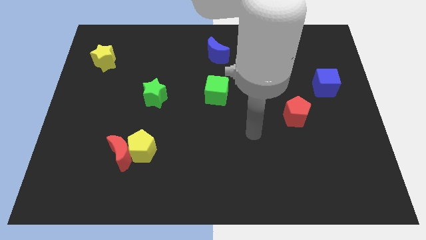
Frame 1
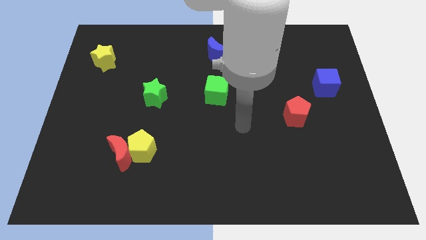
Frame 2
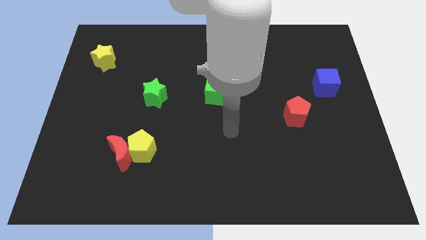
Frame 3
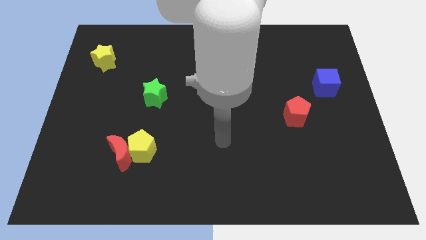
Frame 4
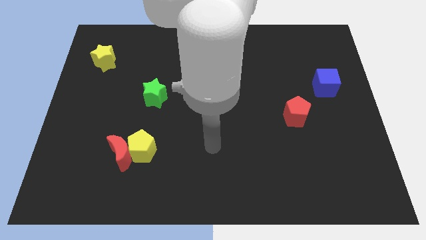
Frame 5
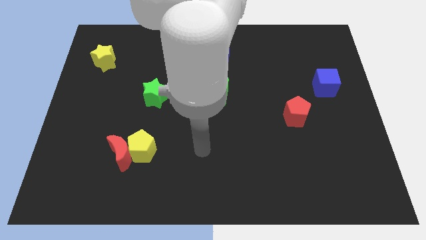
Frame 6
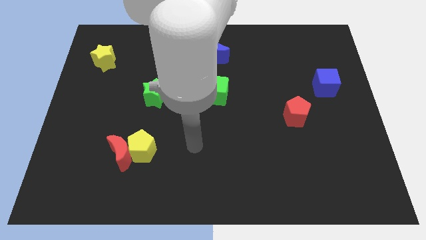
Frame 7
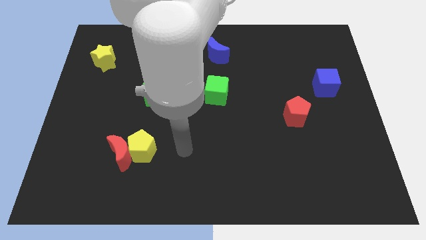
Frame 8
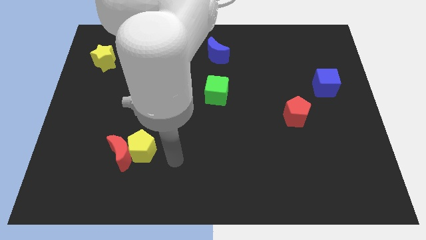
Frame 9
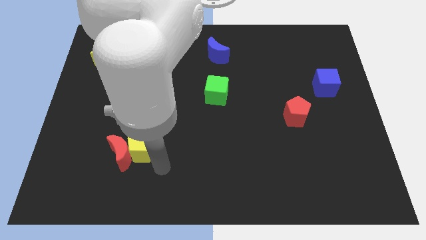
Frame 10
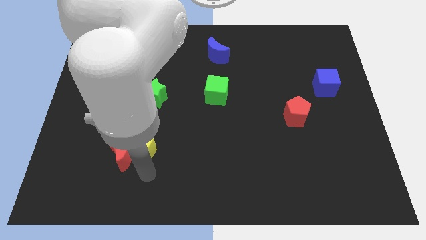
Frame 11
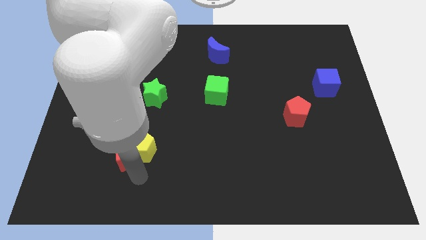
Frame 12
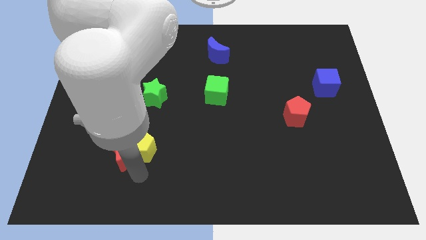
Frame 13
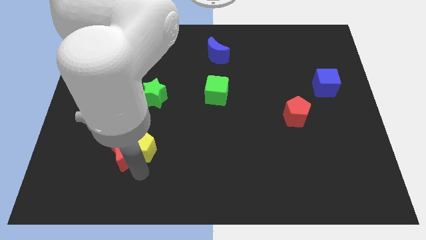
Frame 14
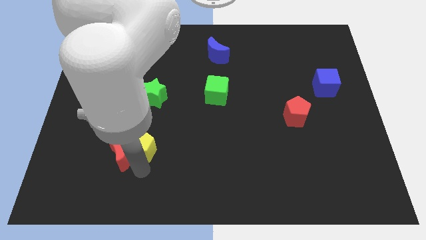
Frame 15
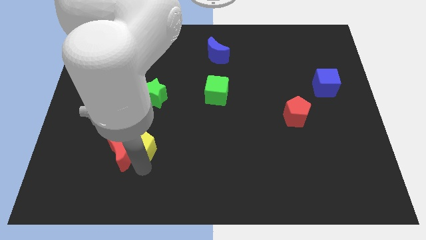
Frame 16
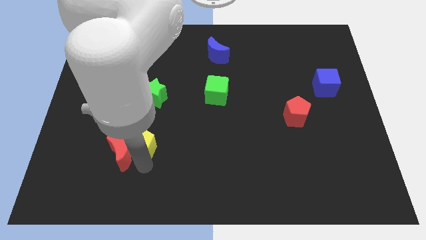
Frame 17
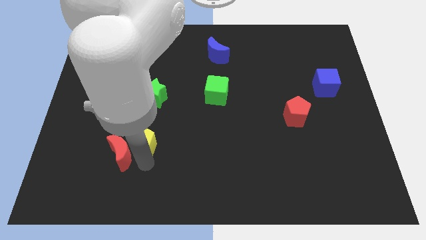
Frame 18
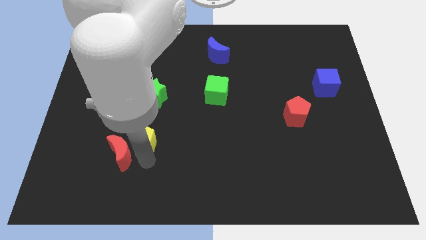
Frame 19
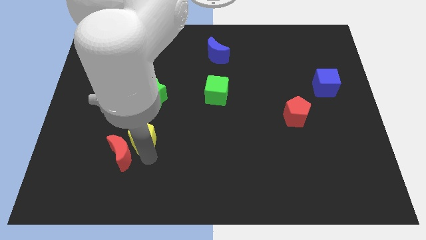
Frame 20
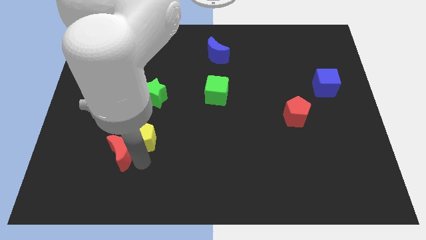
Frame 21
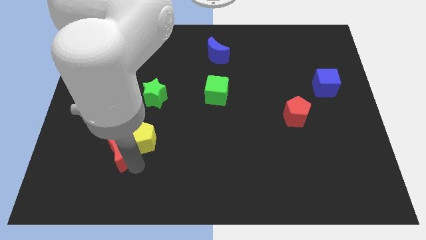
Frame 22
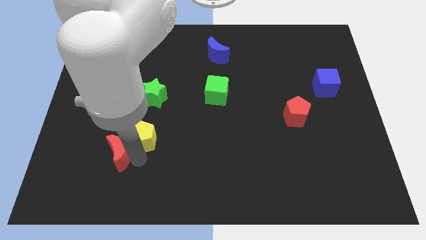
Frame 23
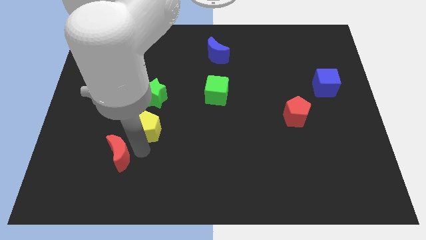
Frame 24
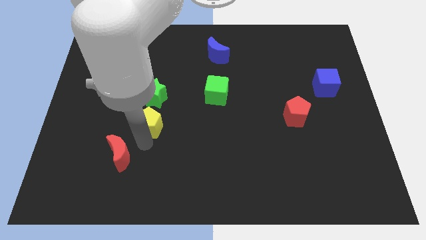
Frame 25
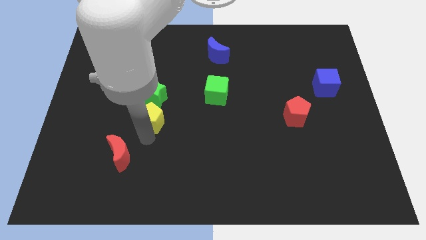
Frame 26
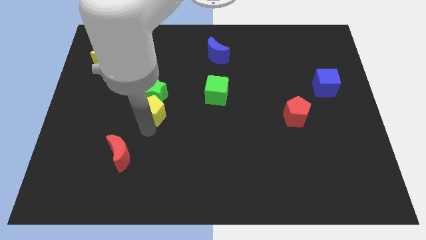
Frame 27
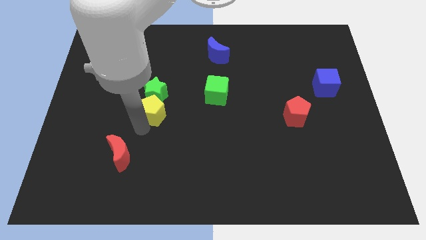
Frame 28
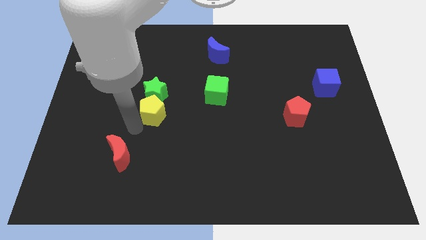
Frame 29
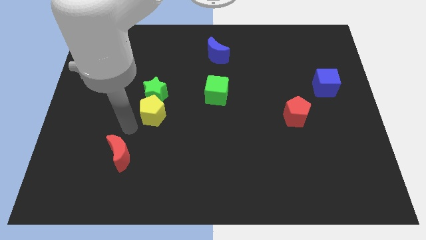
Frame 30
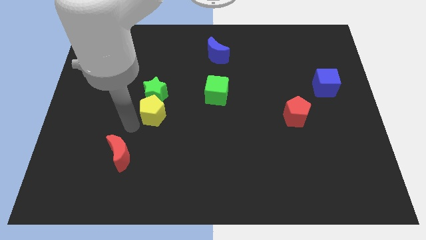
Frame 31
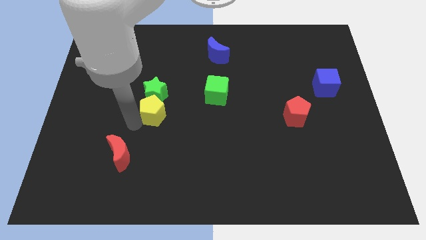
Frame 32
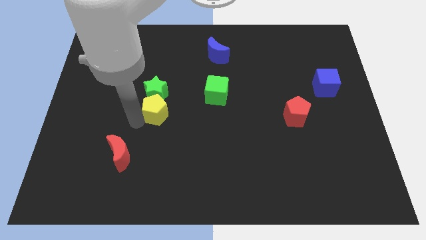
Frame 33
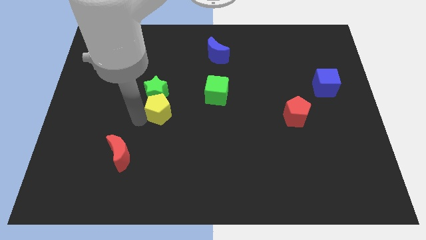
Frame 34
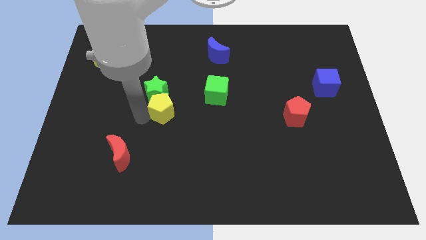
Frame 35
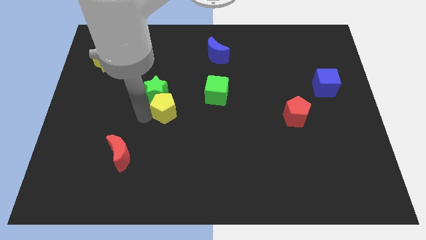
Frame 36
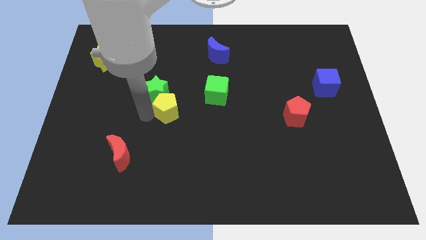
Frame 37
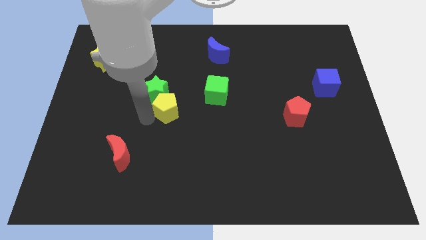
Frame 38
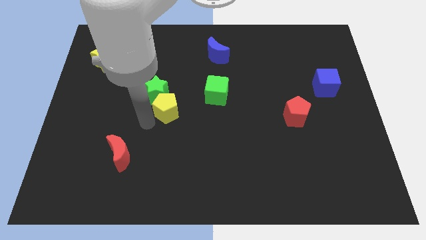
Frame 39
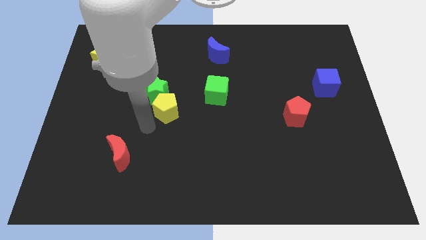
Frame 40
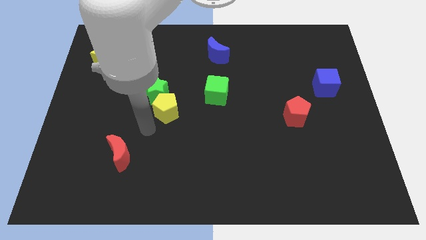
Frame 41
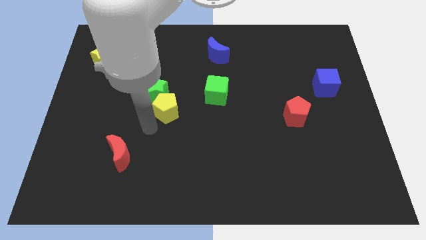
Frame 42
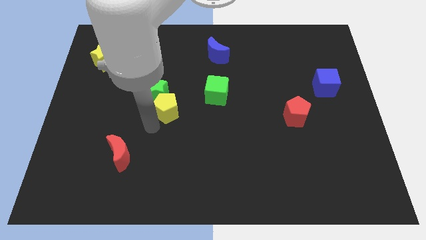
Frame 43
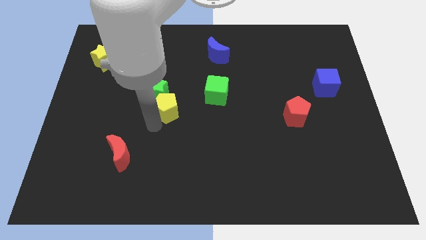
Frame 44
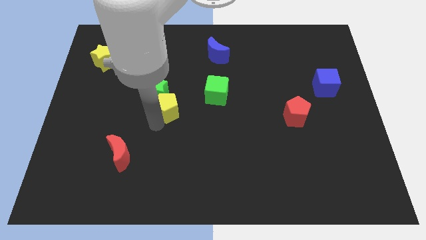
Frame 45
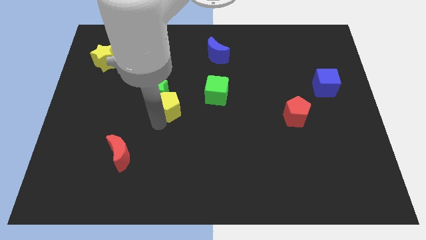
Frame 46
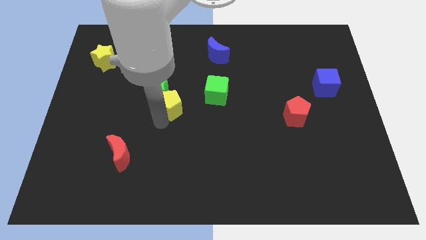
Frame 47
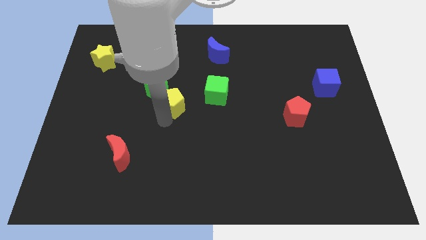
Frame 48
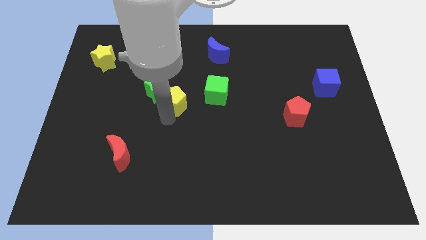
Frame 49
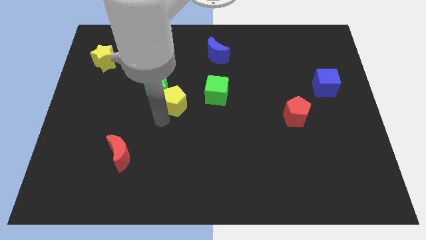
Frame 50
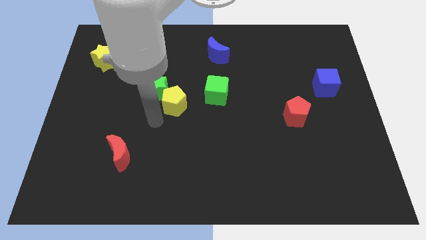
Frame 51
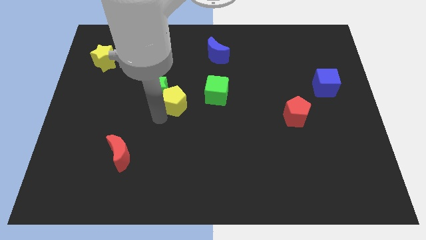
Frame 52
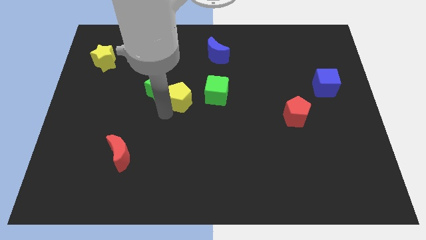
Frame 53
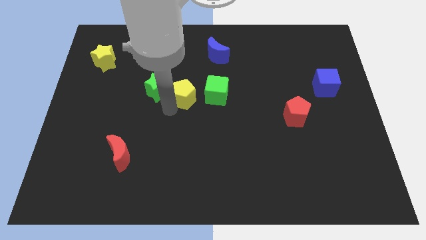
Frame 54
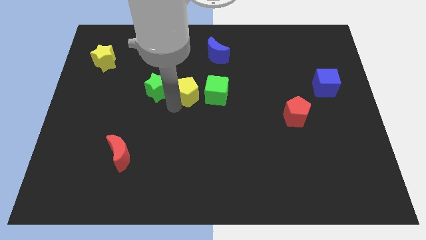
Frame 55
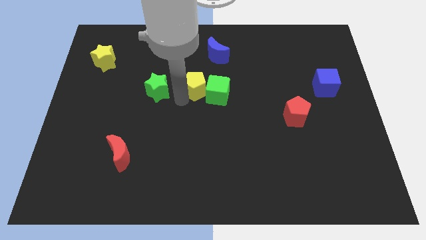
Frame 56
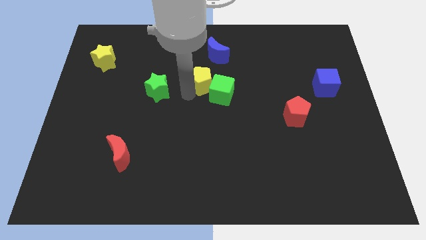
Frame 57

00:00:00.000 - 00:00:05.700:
slide the yellow pentagon upwards and then right

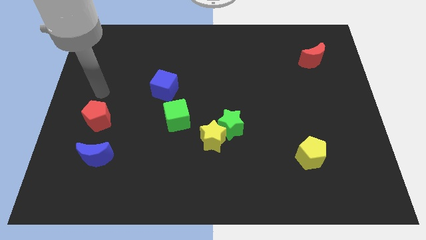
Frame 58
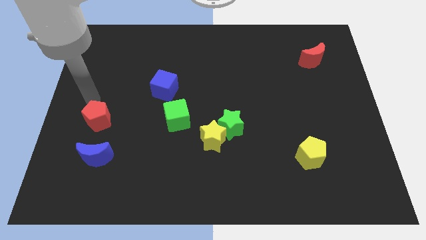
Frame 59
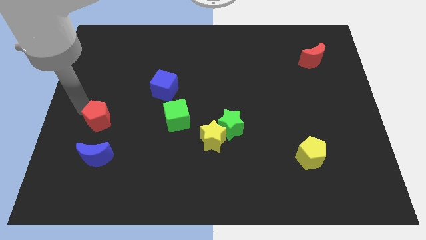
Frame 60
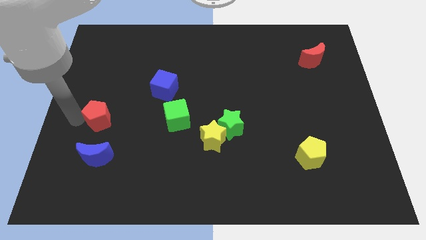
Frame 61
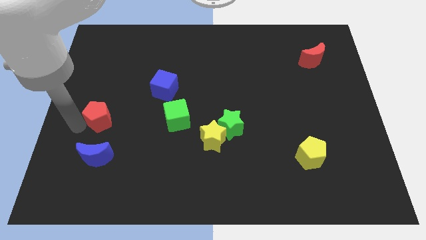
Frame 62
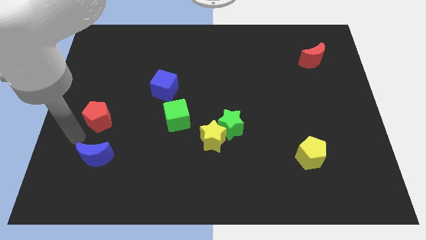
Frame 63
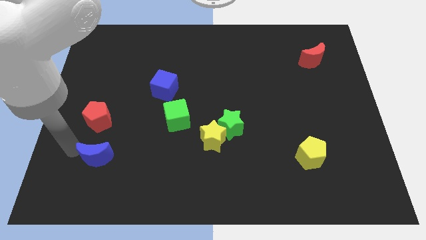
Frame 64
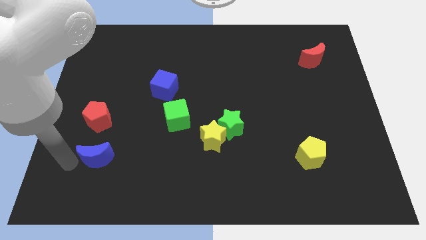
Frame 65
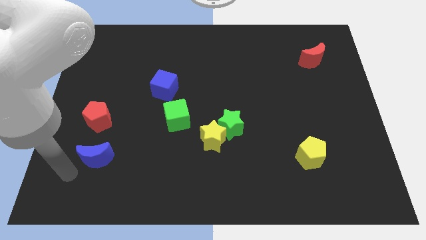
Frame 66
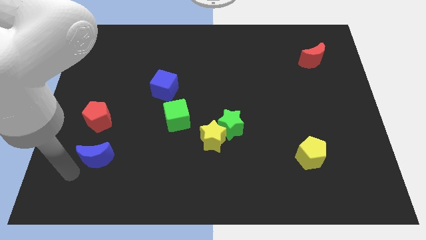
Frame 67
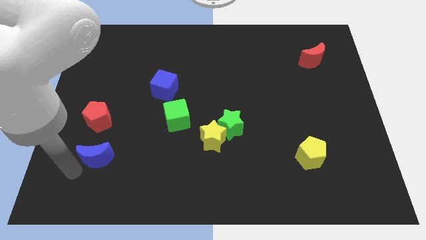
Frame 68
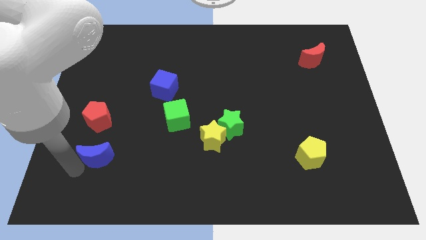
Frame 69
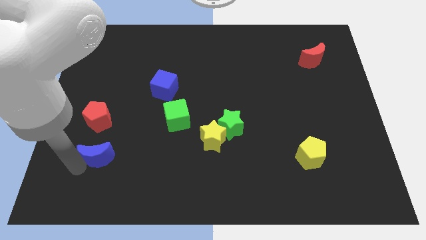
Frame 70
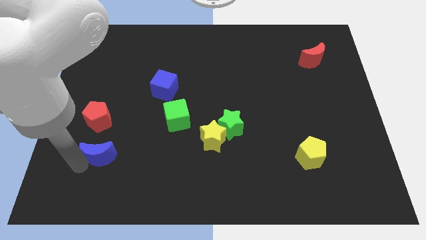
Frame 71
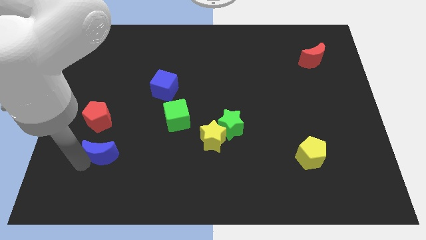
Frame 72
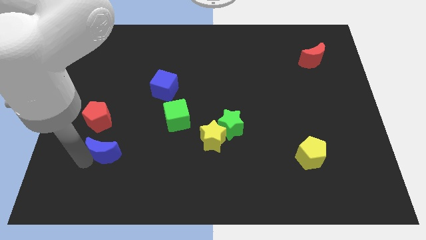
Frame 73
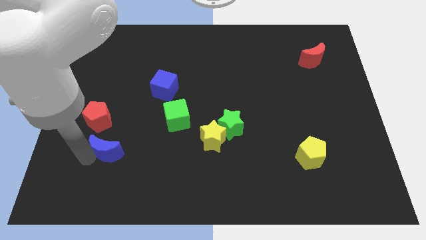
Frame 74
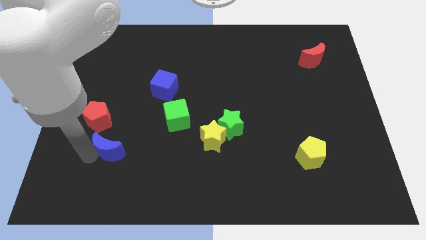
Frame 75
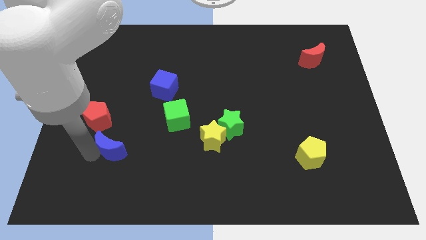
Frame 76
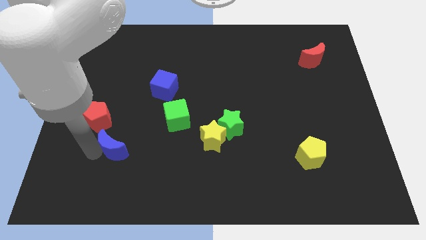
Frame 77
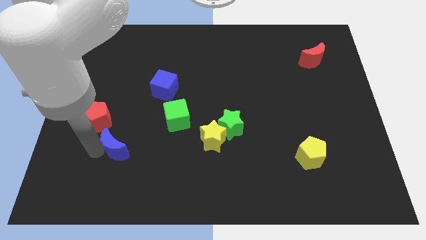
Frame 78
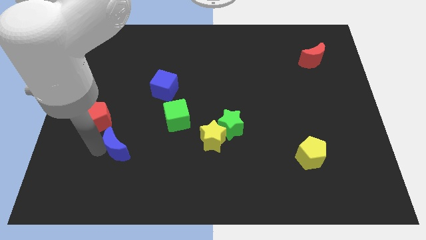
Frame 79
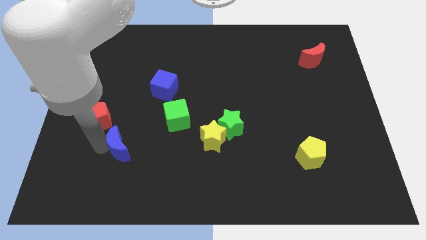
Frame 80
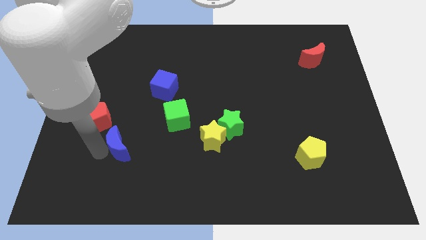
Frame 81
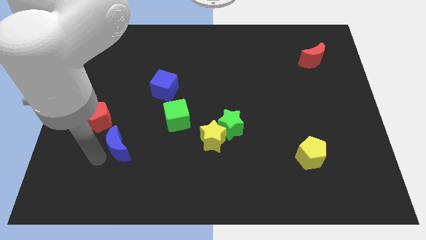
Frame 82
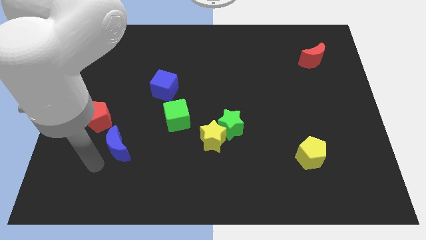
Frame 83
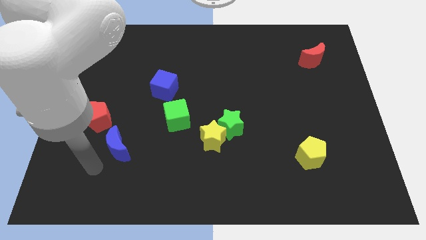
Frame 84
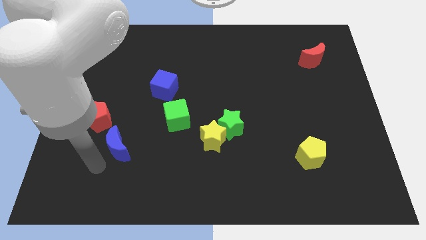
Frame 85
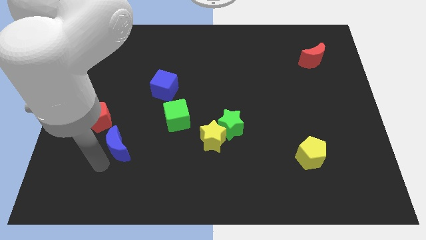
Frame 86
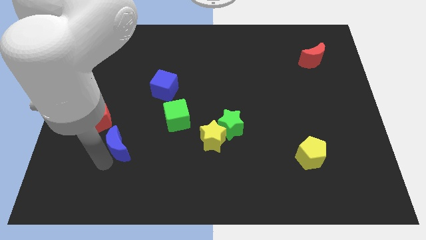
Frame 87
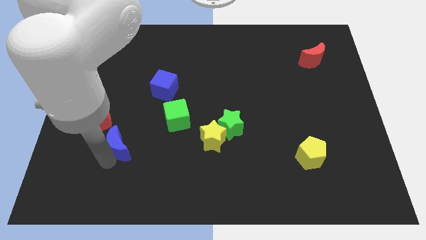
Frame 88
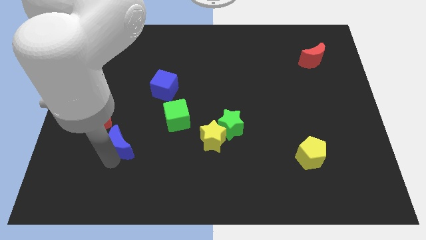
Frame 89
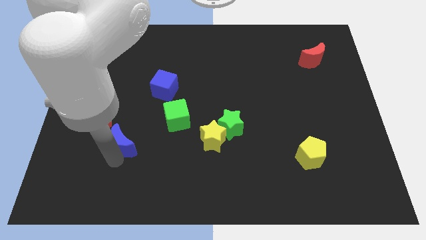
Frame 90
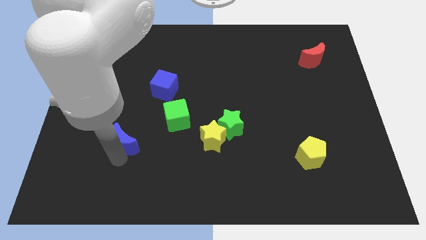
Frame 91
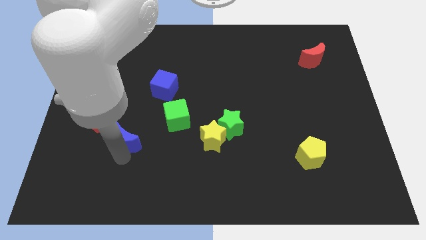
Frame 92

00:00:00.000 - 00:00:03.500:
slightly slide the blue moon up and to the right diagonally
